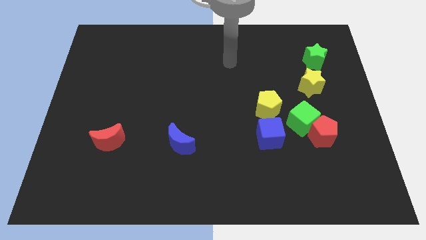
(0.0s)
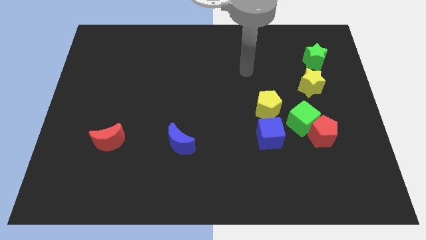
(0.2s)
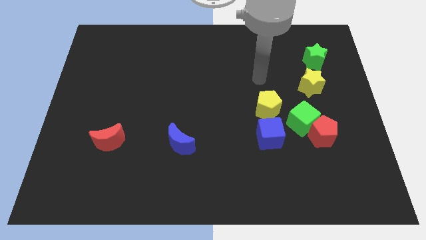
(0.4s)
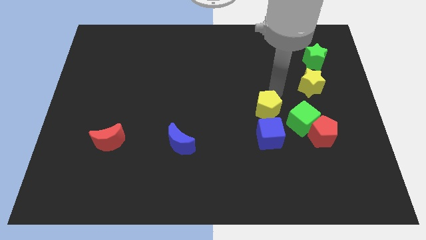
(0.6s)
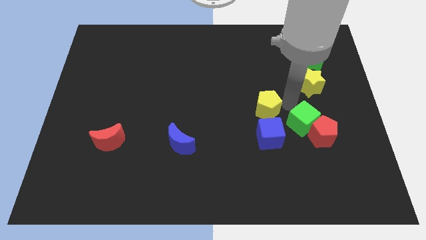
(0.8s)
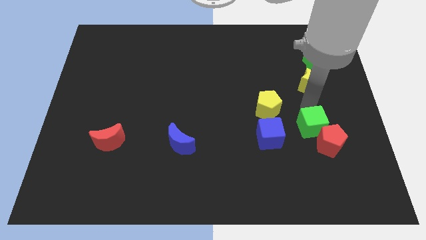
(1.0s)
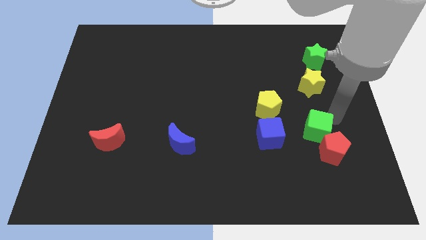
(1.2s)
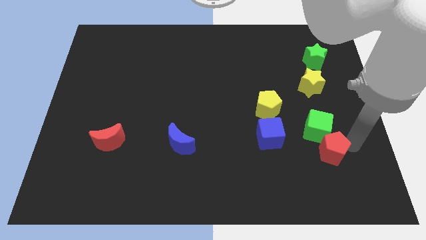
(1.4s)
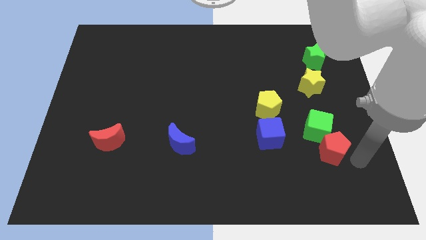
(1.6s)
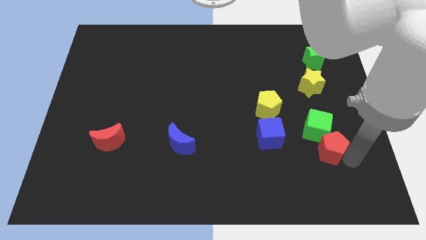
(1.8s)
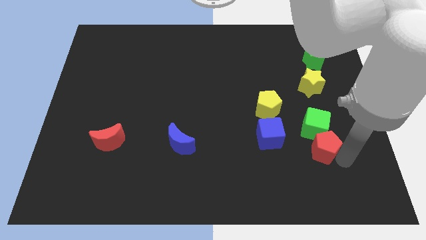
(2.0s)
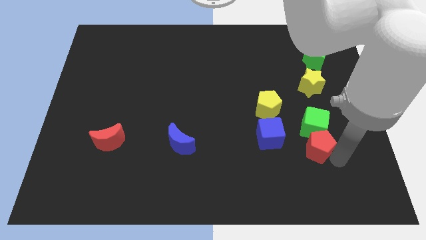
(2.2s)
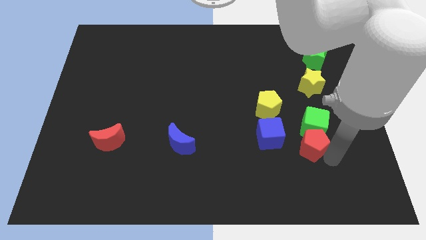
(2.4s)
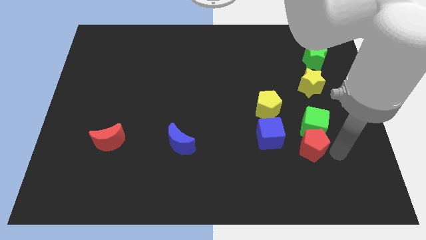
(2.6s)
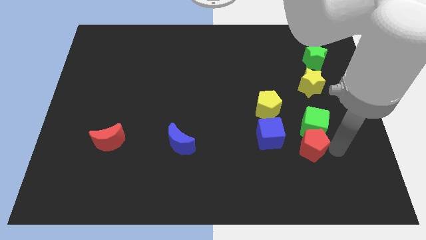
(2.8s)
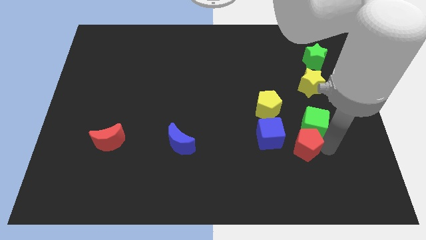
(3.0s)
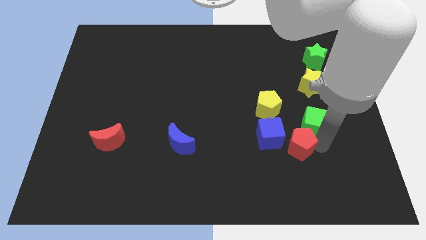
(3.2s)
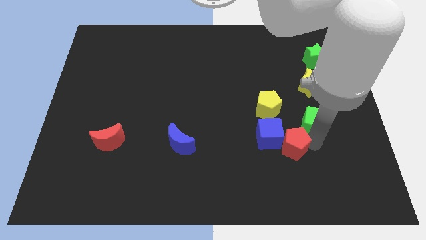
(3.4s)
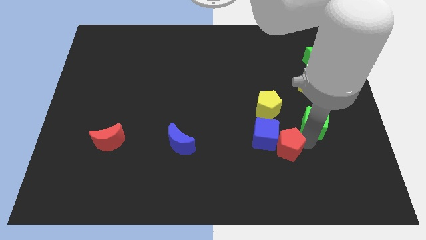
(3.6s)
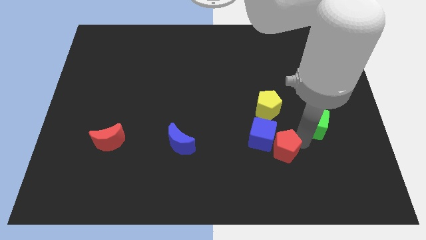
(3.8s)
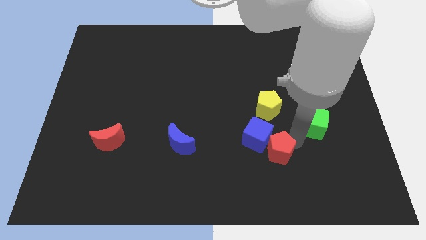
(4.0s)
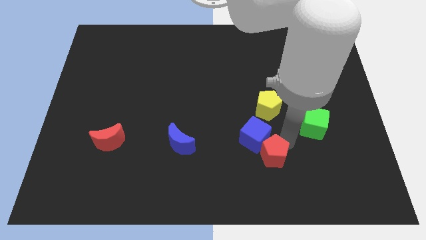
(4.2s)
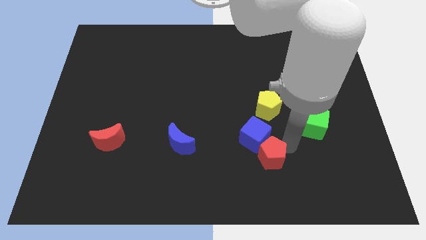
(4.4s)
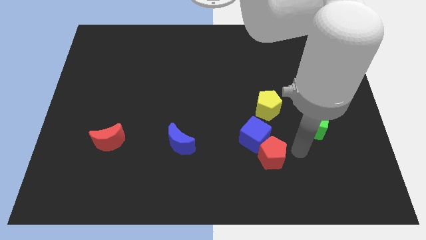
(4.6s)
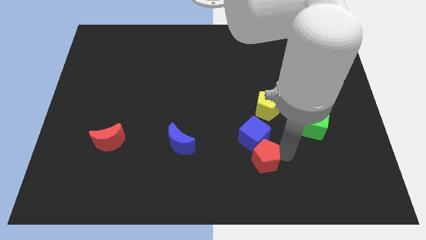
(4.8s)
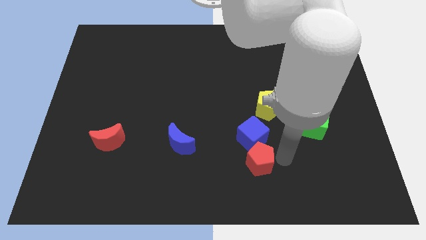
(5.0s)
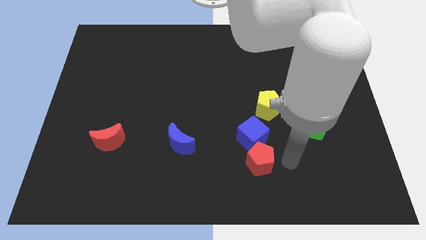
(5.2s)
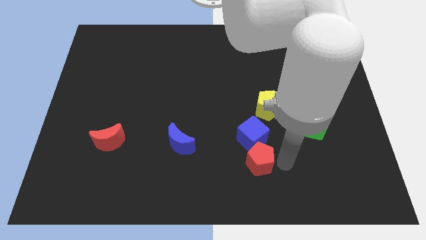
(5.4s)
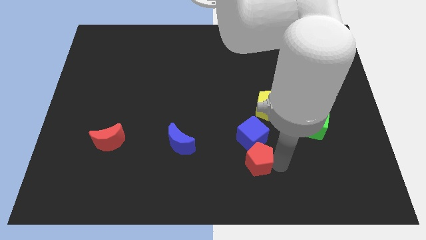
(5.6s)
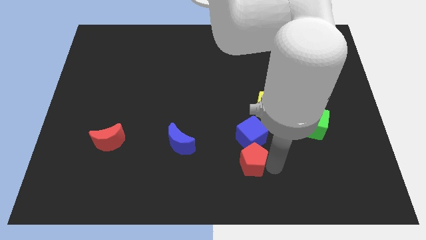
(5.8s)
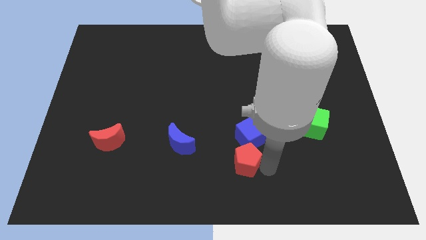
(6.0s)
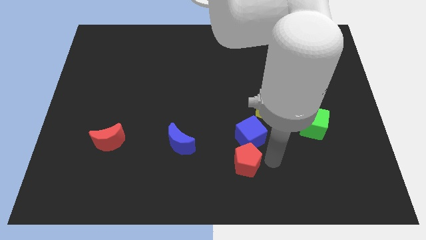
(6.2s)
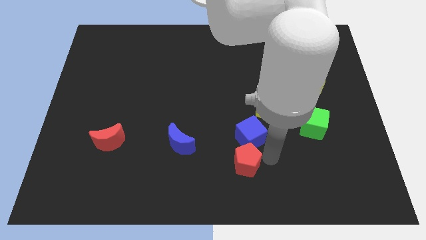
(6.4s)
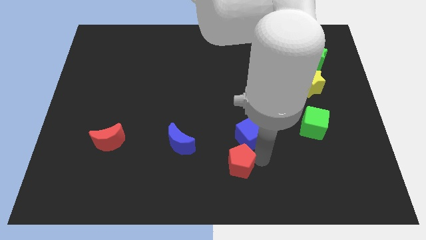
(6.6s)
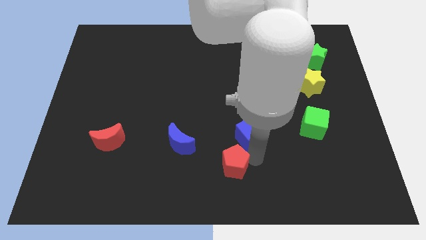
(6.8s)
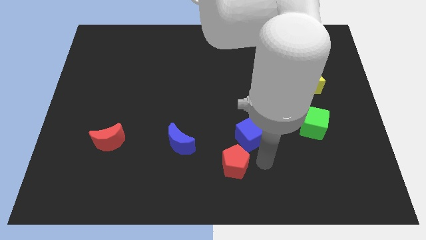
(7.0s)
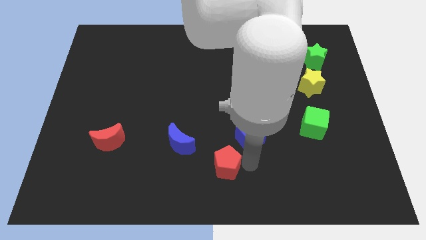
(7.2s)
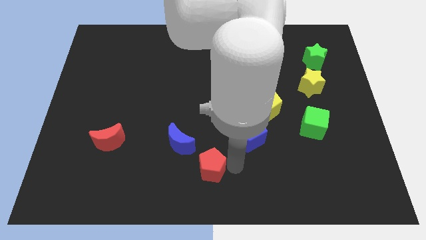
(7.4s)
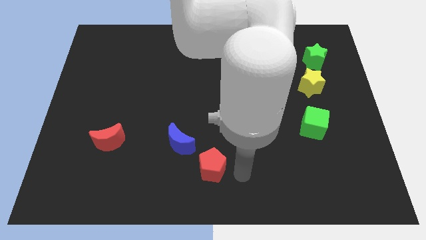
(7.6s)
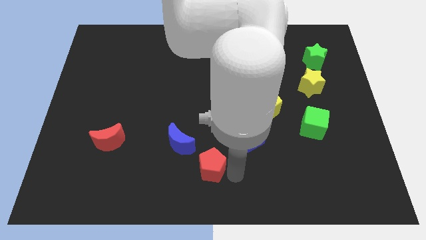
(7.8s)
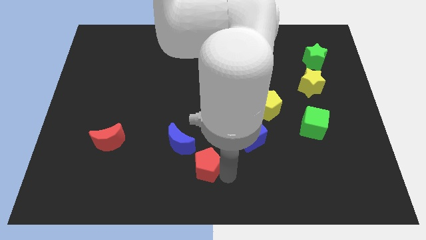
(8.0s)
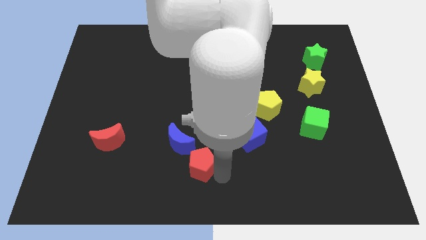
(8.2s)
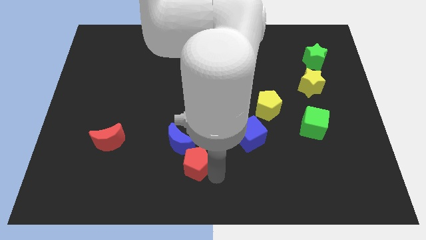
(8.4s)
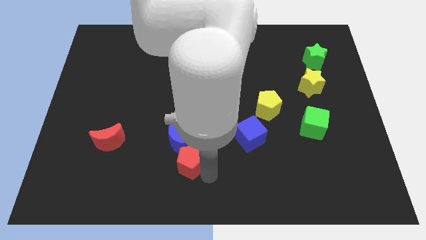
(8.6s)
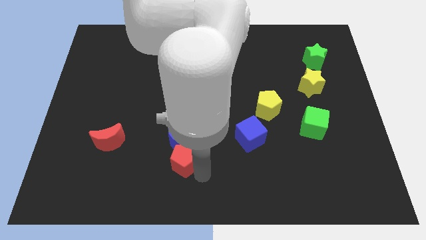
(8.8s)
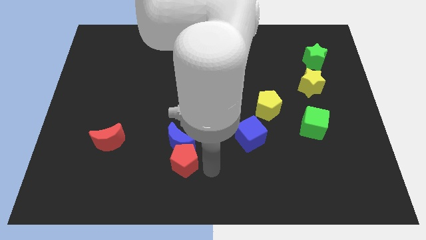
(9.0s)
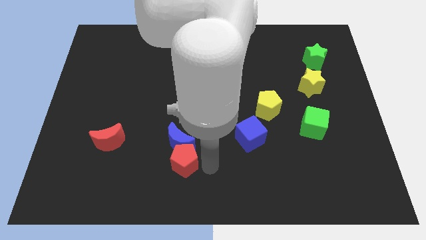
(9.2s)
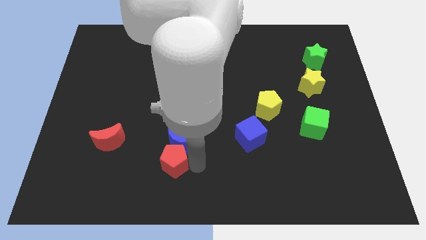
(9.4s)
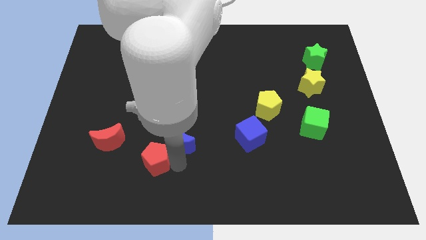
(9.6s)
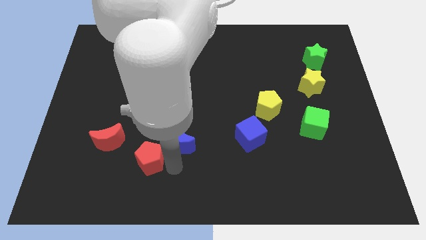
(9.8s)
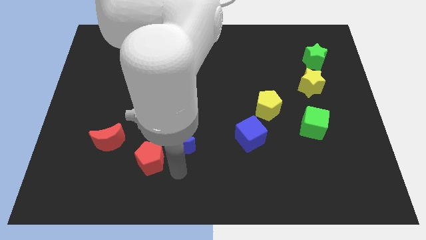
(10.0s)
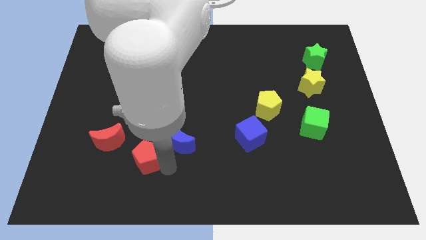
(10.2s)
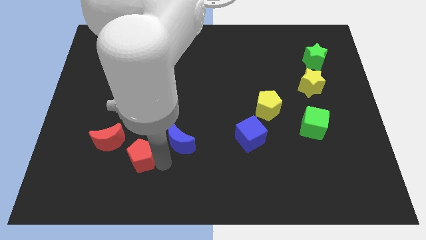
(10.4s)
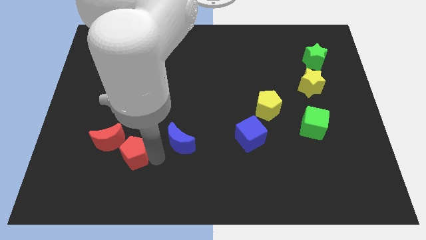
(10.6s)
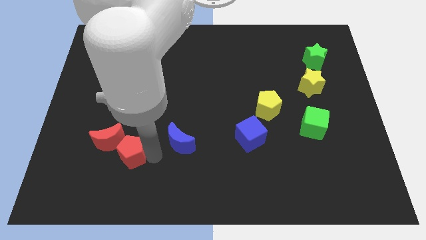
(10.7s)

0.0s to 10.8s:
move the red pentagon to the red moon

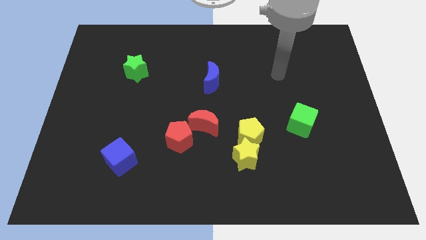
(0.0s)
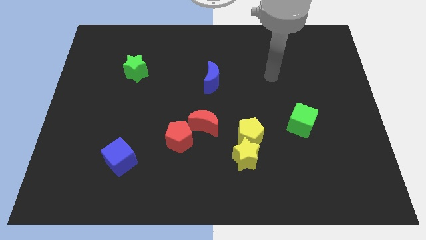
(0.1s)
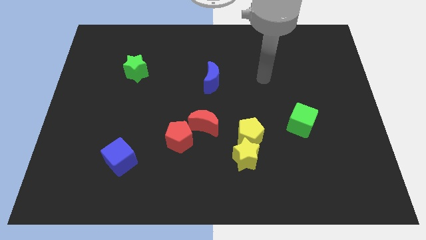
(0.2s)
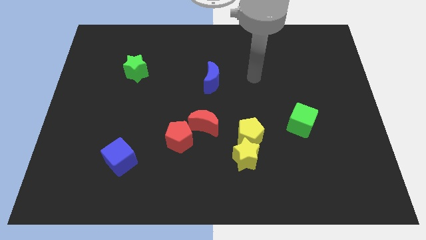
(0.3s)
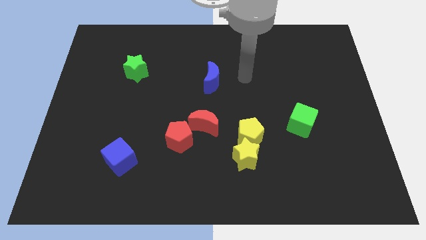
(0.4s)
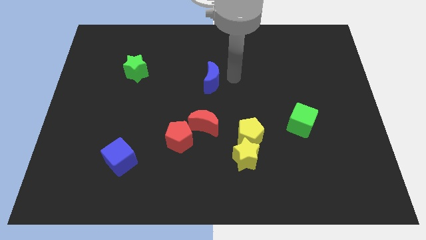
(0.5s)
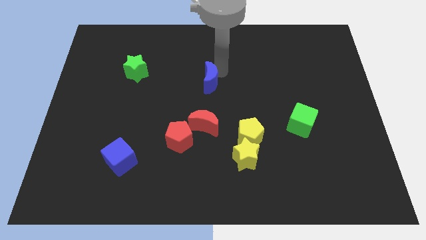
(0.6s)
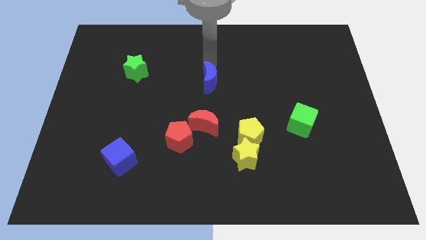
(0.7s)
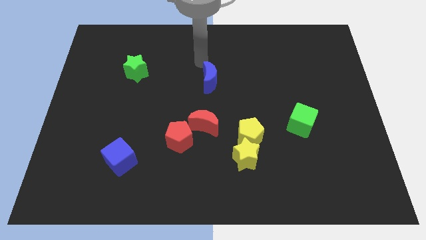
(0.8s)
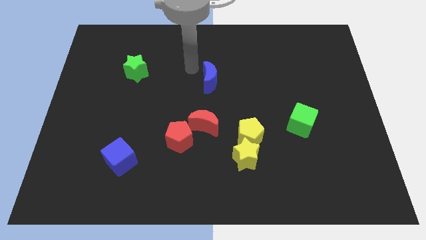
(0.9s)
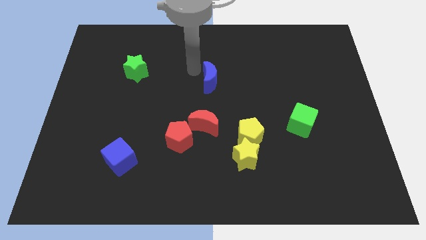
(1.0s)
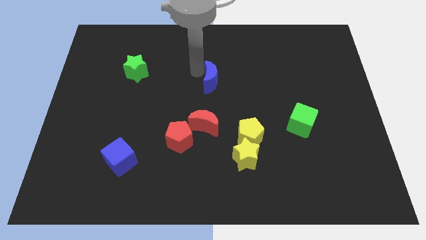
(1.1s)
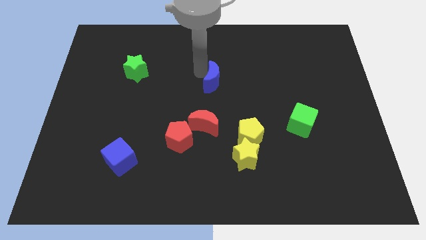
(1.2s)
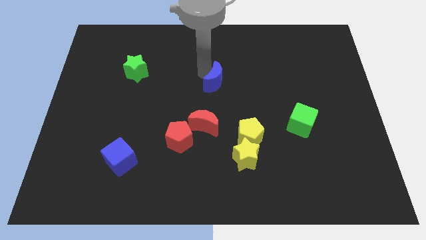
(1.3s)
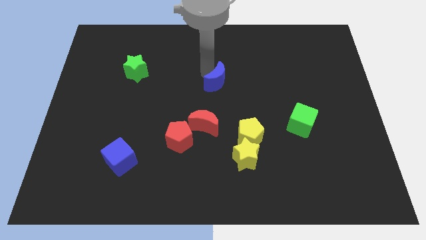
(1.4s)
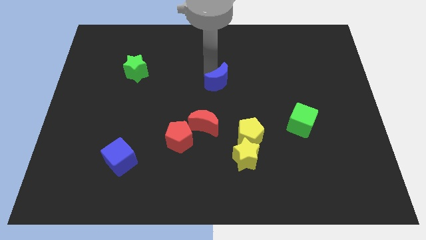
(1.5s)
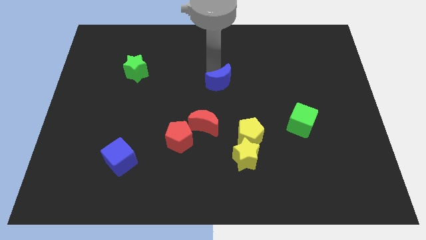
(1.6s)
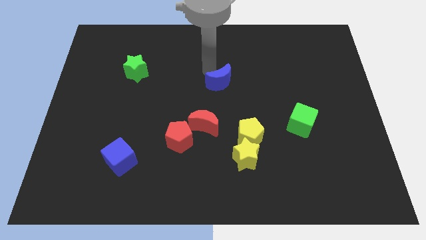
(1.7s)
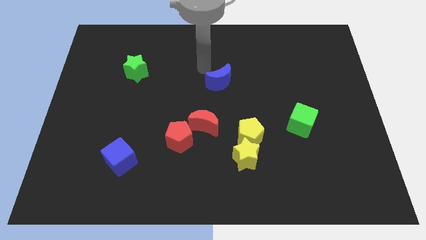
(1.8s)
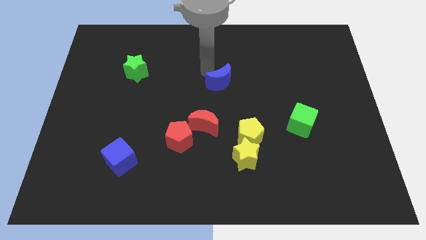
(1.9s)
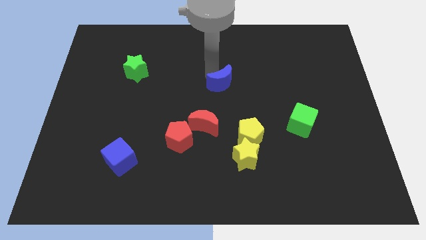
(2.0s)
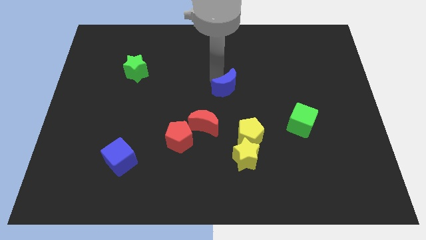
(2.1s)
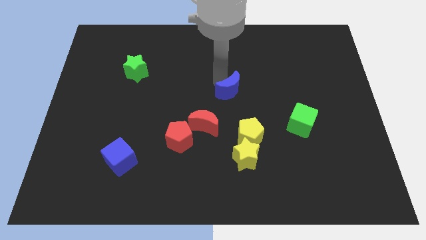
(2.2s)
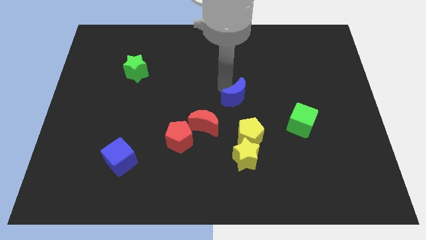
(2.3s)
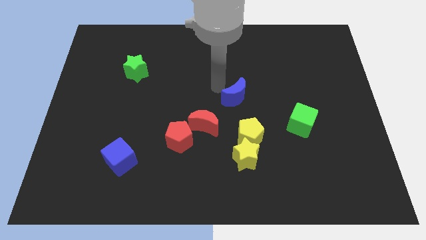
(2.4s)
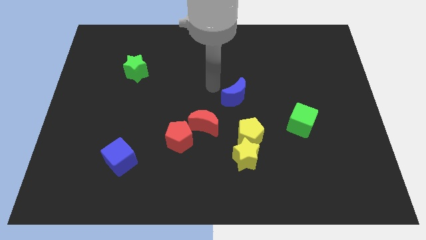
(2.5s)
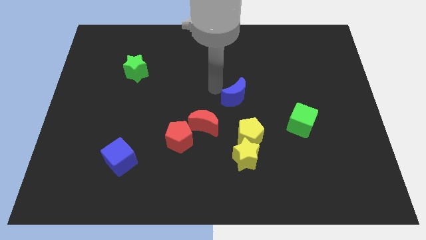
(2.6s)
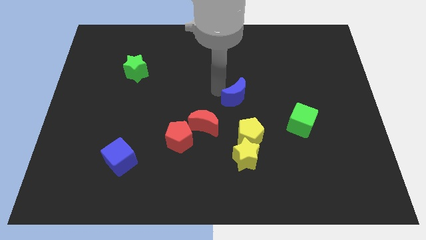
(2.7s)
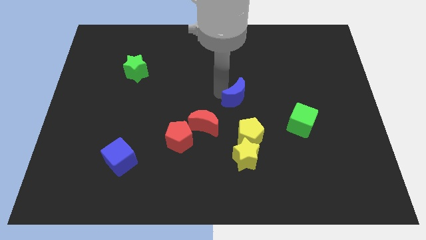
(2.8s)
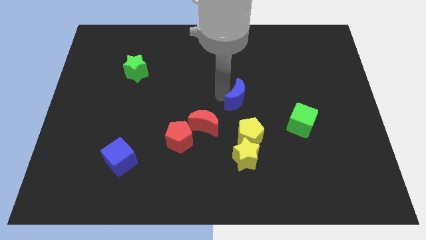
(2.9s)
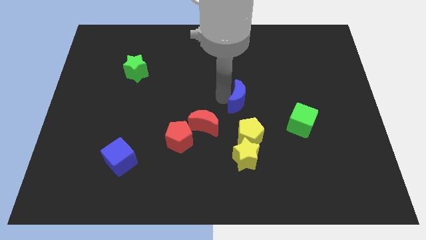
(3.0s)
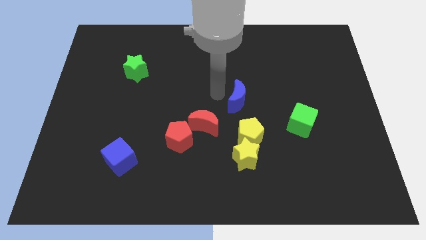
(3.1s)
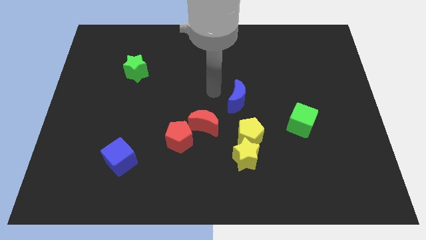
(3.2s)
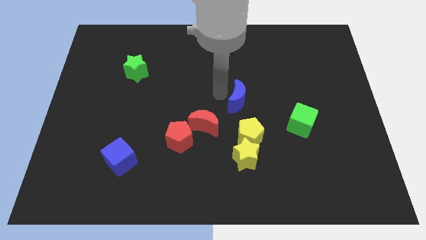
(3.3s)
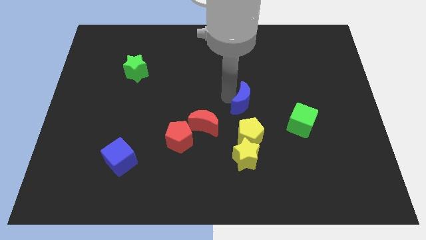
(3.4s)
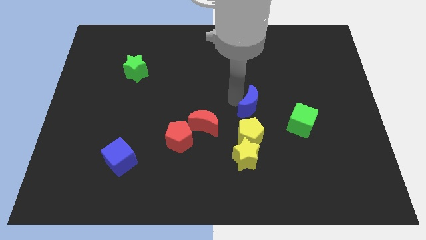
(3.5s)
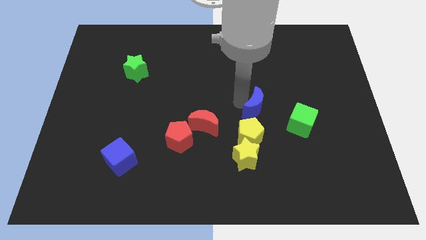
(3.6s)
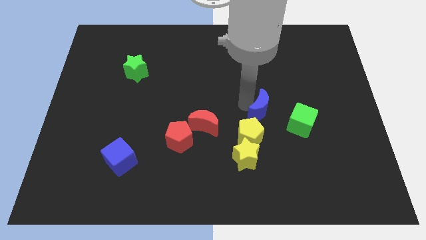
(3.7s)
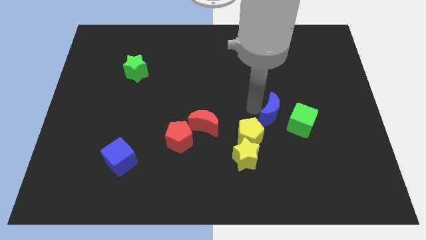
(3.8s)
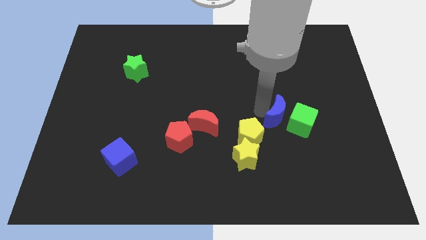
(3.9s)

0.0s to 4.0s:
push the blue moon next to the green cube
